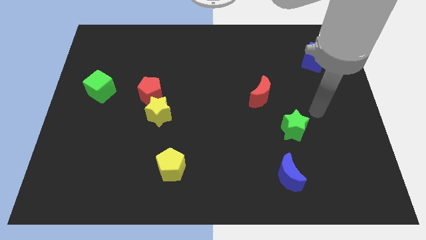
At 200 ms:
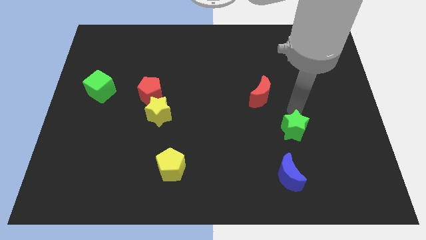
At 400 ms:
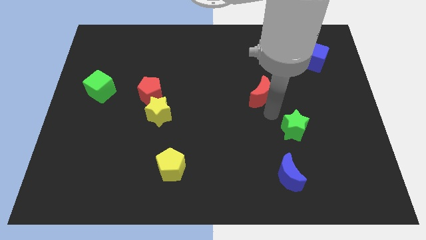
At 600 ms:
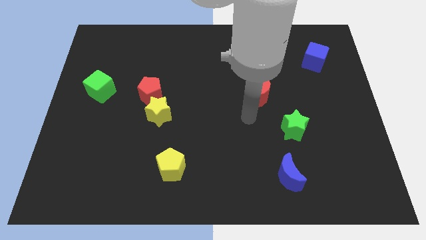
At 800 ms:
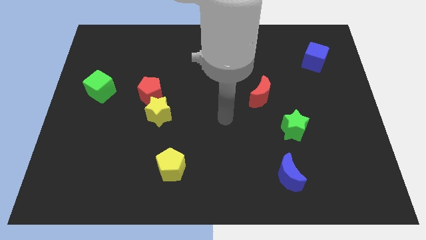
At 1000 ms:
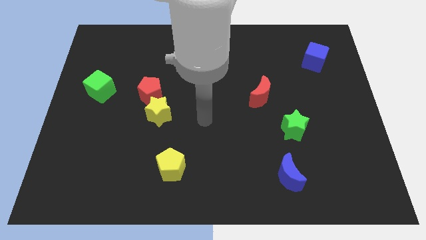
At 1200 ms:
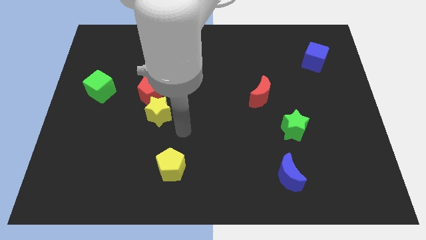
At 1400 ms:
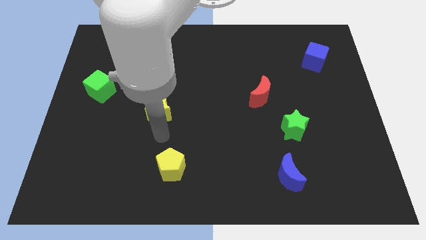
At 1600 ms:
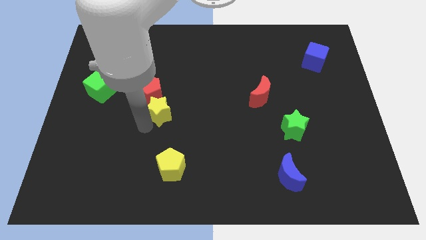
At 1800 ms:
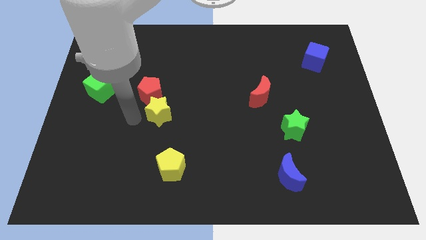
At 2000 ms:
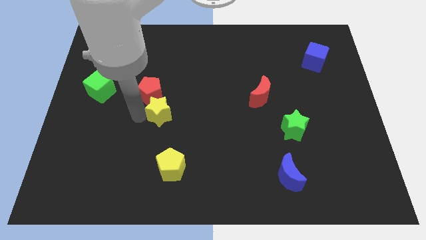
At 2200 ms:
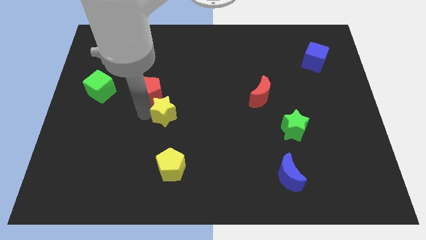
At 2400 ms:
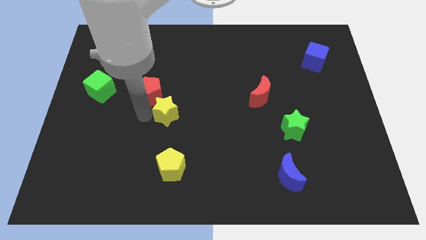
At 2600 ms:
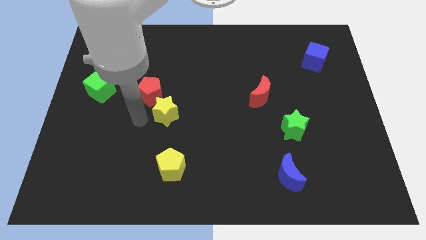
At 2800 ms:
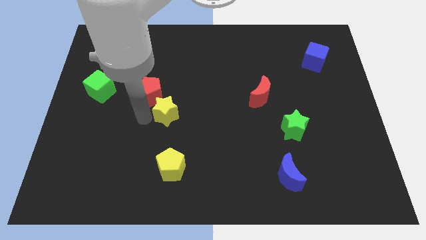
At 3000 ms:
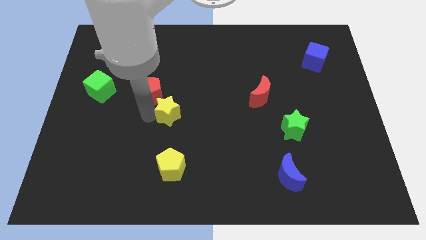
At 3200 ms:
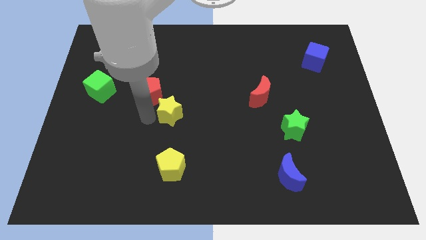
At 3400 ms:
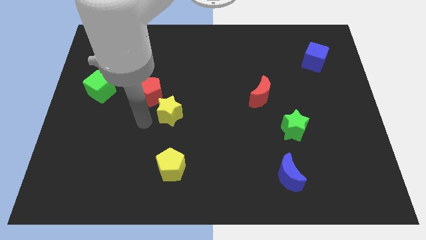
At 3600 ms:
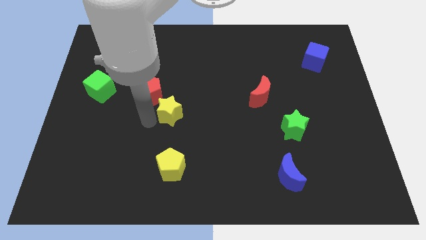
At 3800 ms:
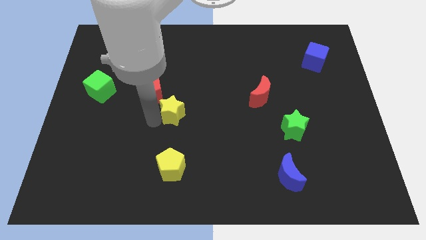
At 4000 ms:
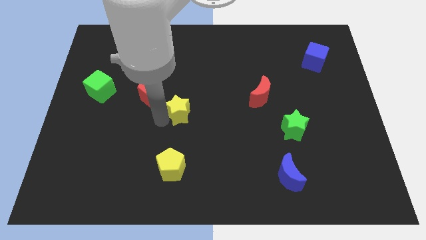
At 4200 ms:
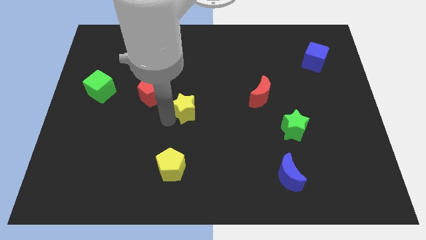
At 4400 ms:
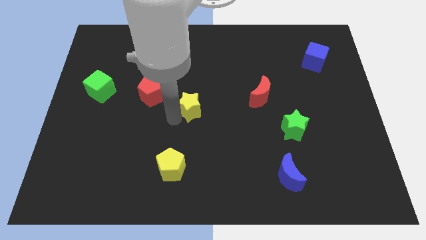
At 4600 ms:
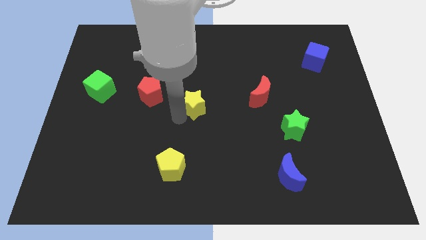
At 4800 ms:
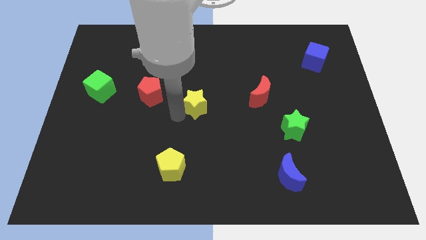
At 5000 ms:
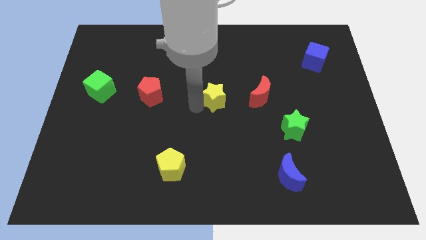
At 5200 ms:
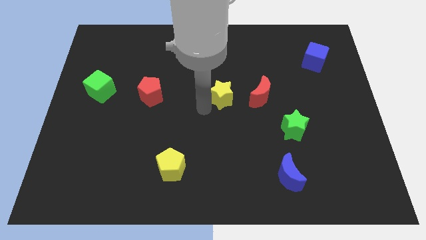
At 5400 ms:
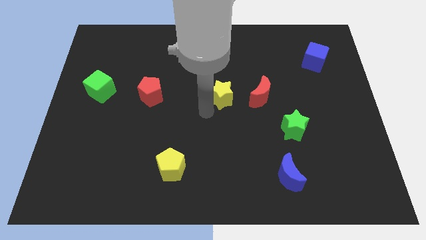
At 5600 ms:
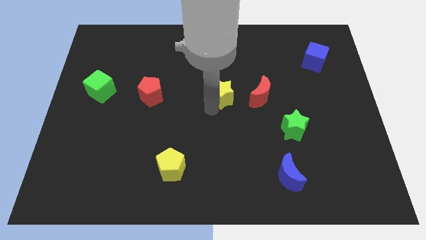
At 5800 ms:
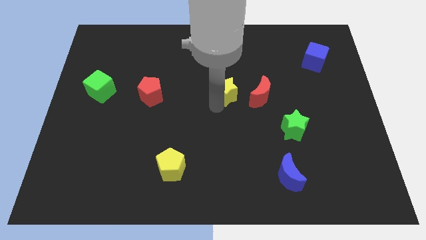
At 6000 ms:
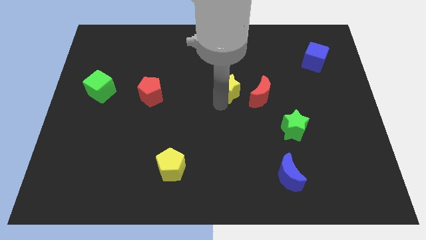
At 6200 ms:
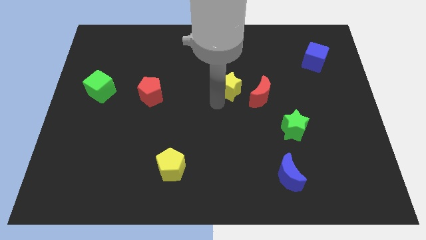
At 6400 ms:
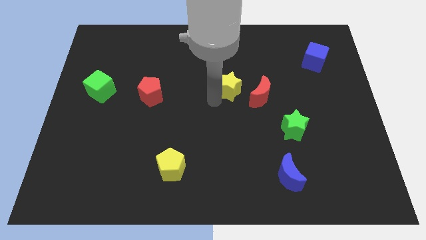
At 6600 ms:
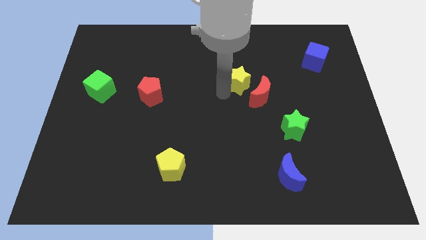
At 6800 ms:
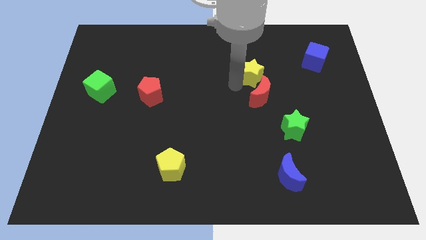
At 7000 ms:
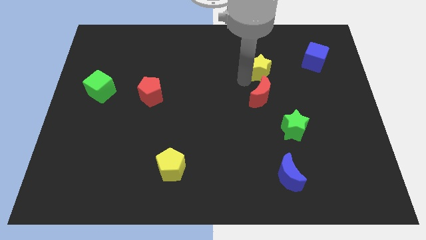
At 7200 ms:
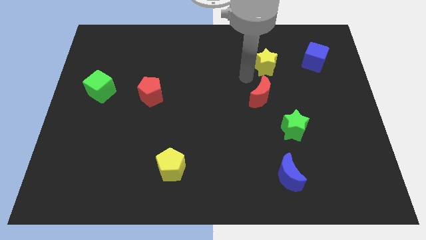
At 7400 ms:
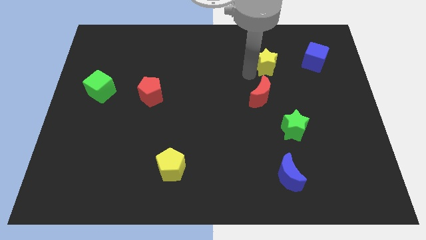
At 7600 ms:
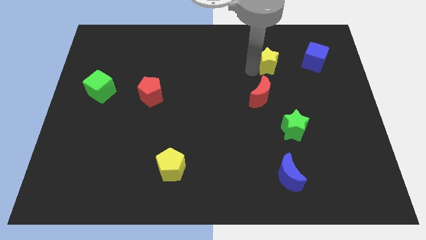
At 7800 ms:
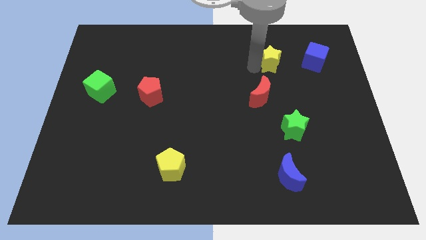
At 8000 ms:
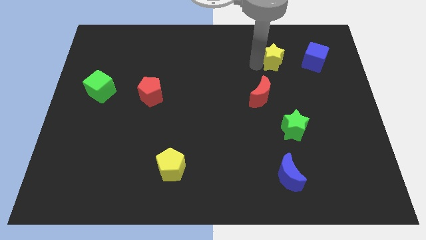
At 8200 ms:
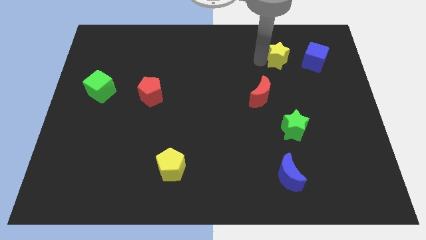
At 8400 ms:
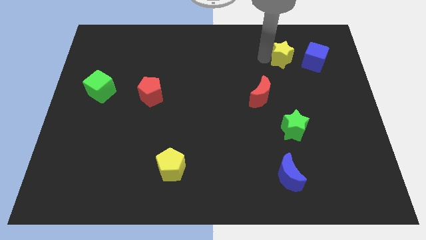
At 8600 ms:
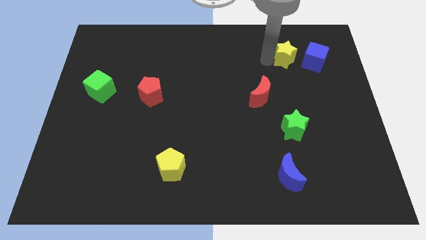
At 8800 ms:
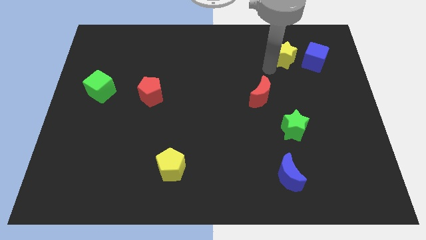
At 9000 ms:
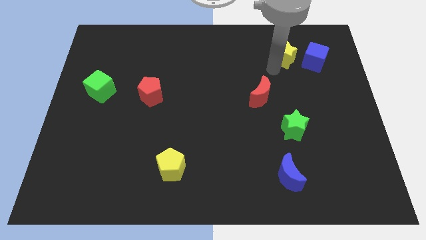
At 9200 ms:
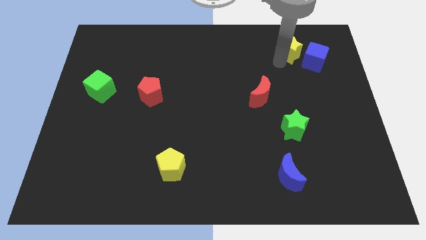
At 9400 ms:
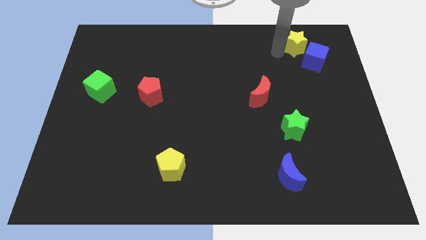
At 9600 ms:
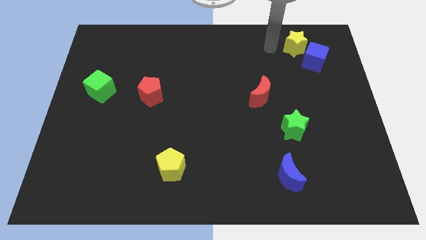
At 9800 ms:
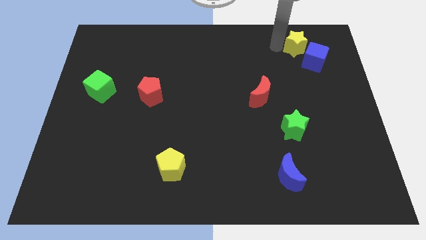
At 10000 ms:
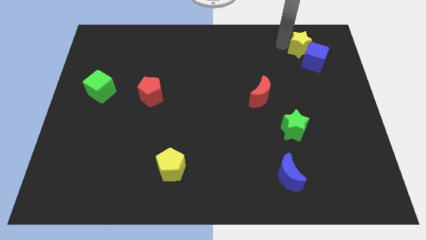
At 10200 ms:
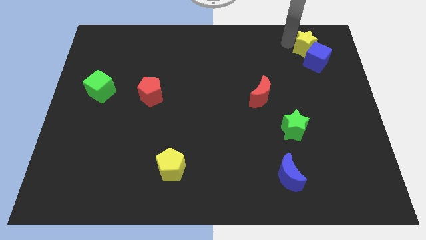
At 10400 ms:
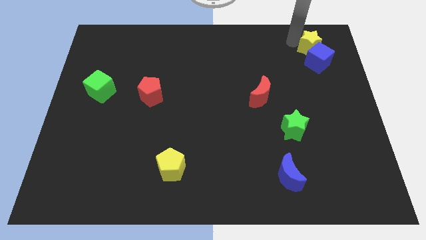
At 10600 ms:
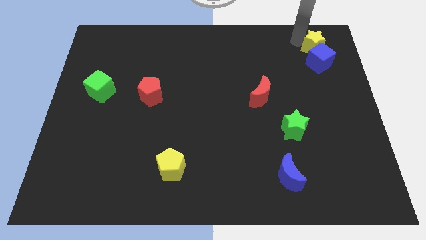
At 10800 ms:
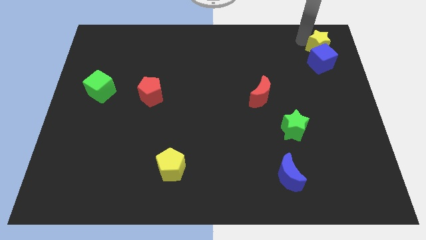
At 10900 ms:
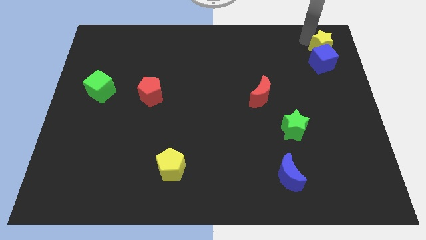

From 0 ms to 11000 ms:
move the yellow star to the top right of the board

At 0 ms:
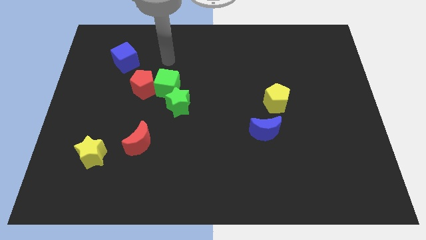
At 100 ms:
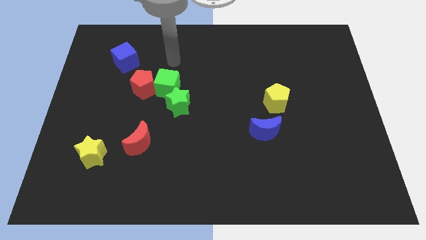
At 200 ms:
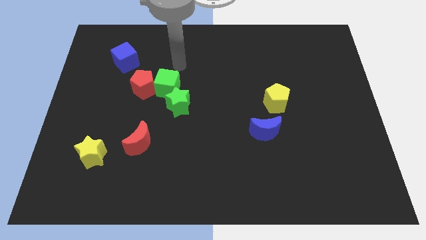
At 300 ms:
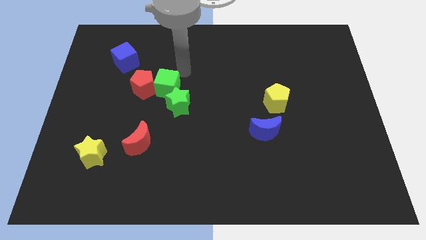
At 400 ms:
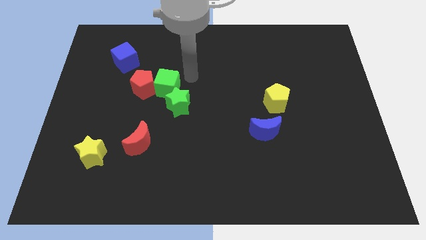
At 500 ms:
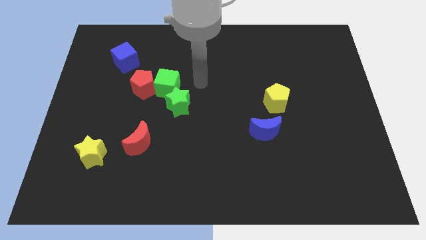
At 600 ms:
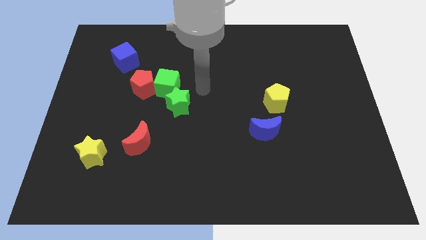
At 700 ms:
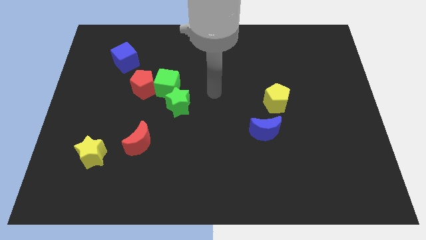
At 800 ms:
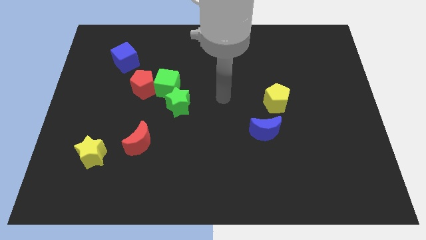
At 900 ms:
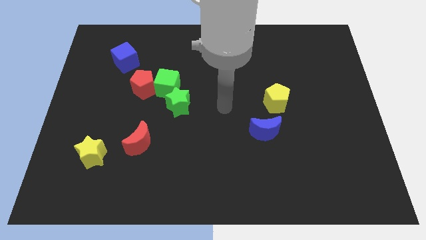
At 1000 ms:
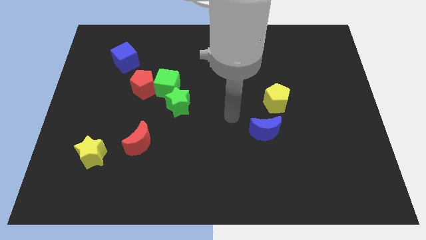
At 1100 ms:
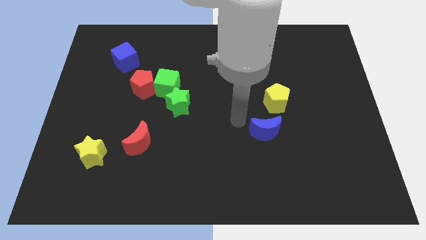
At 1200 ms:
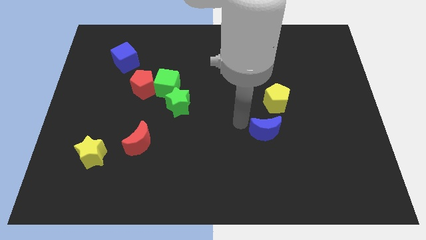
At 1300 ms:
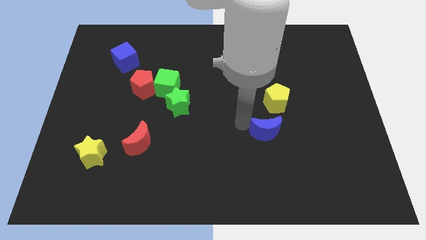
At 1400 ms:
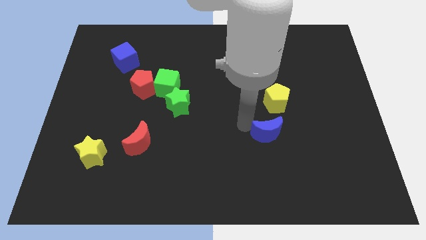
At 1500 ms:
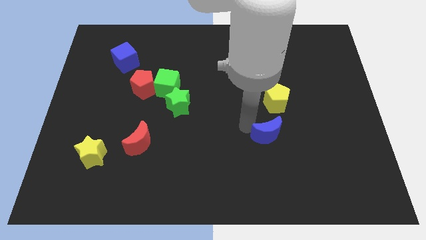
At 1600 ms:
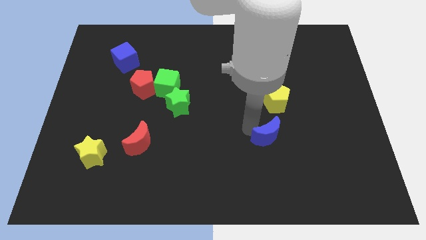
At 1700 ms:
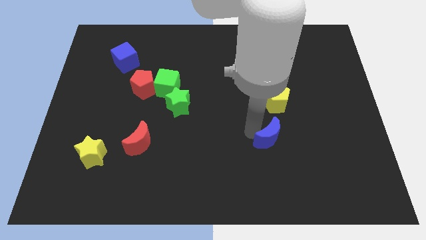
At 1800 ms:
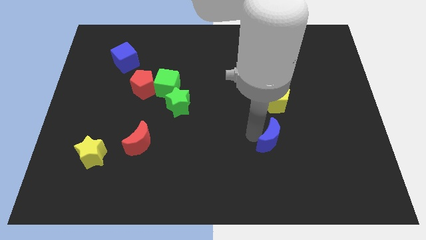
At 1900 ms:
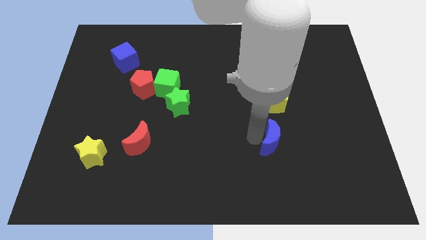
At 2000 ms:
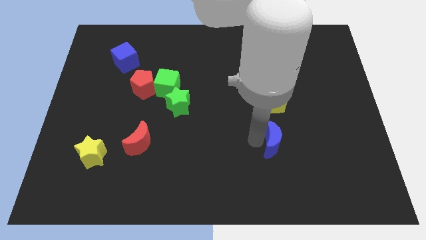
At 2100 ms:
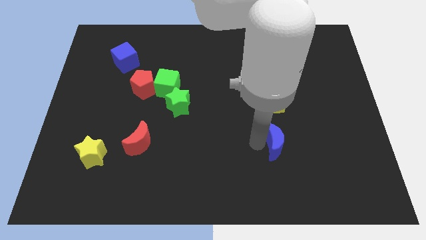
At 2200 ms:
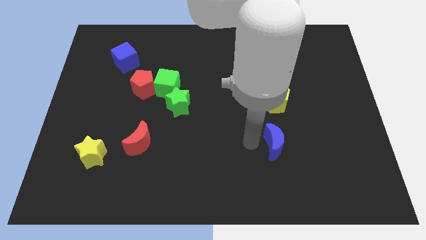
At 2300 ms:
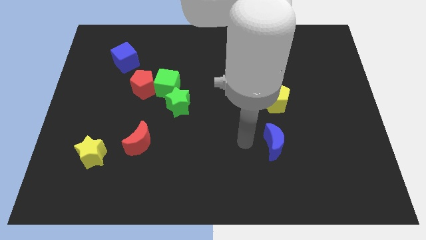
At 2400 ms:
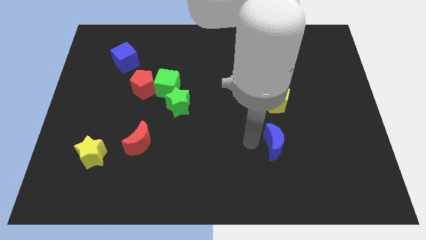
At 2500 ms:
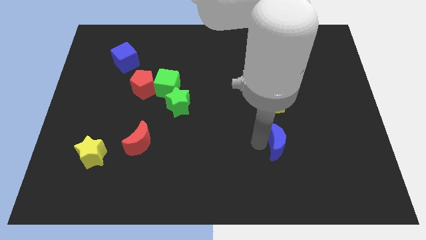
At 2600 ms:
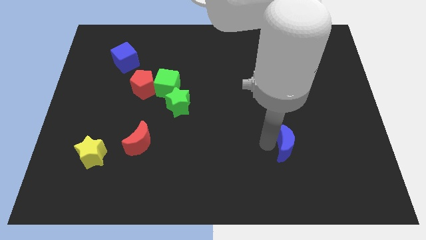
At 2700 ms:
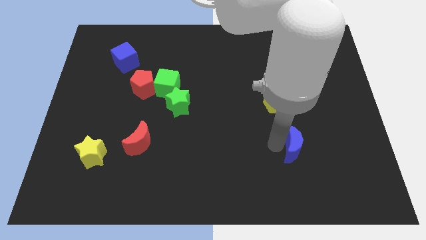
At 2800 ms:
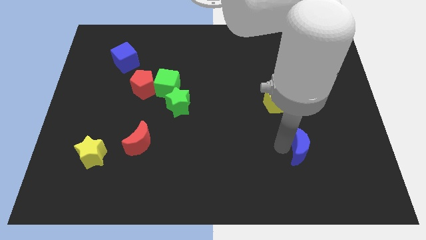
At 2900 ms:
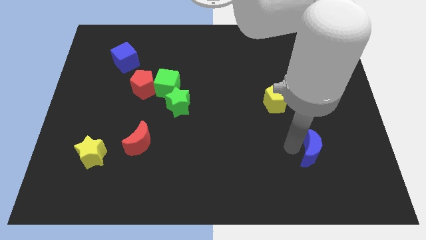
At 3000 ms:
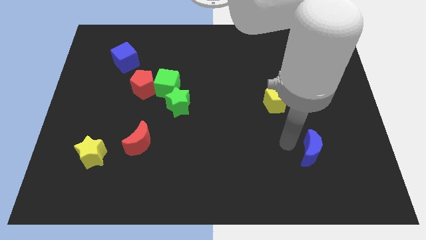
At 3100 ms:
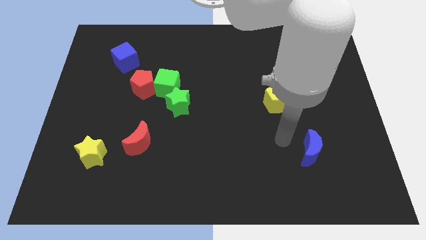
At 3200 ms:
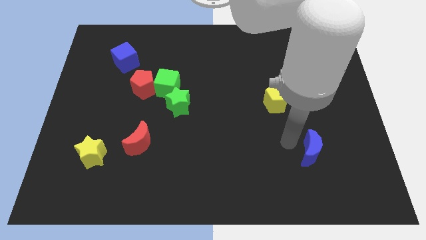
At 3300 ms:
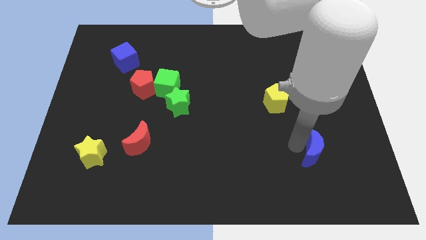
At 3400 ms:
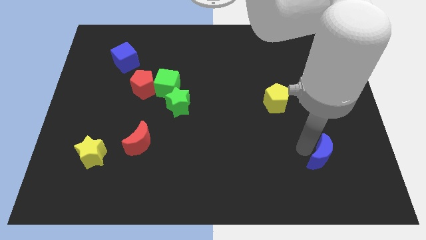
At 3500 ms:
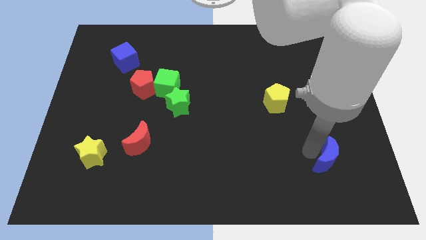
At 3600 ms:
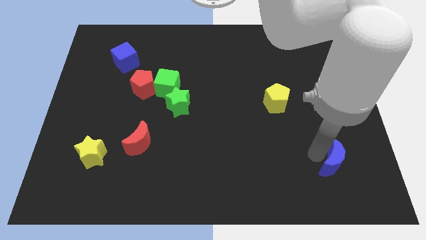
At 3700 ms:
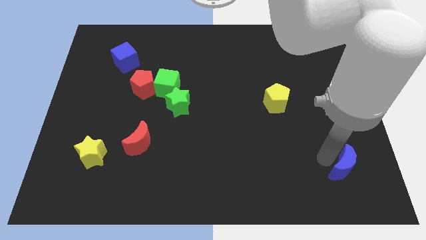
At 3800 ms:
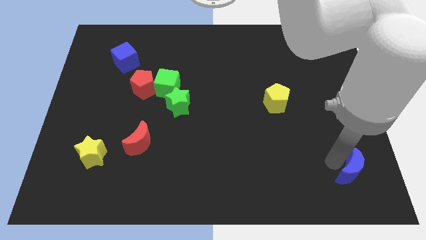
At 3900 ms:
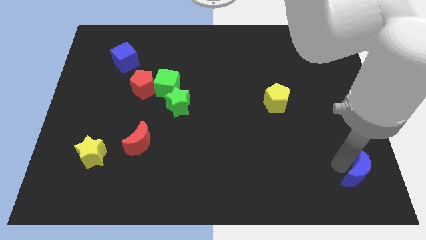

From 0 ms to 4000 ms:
put the blue moon to the bottom right corner
